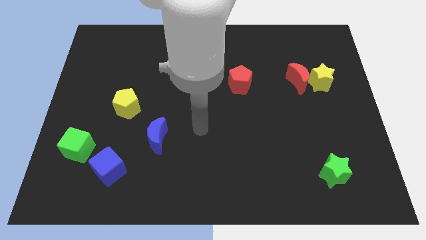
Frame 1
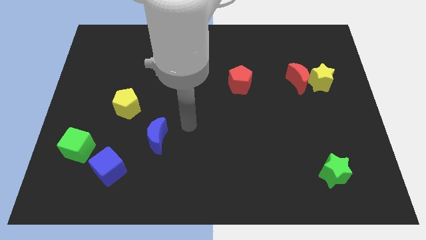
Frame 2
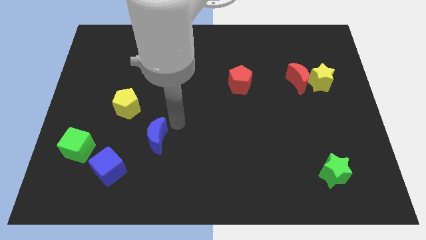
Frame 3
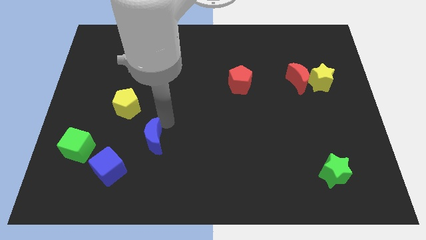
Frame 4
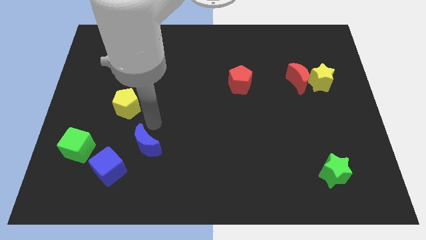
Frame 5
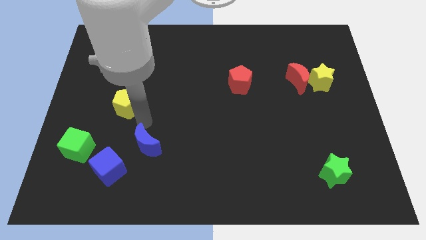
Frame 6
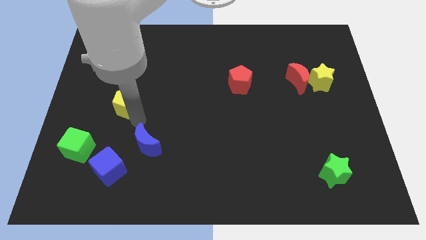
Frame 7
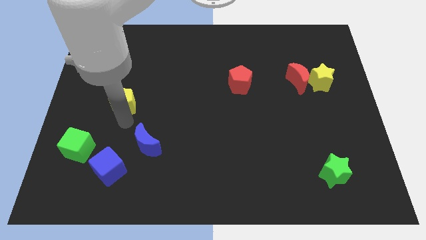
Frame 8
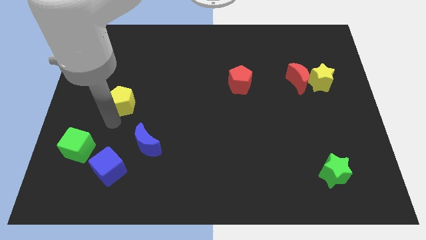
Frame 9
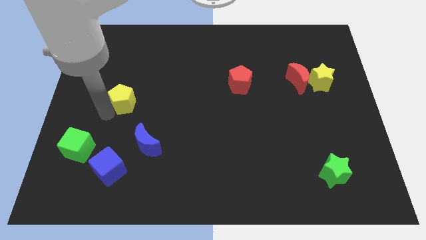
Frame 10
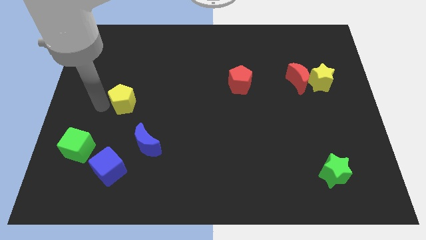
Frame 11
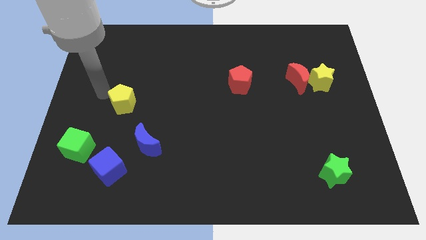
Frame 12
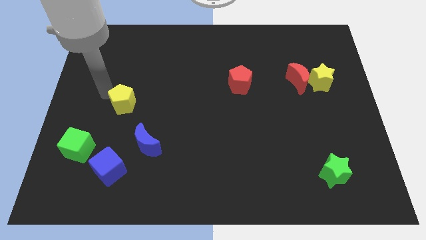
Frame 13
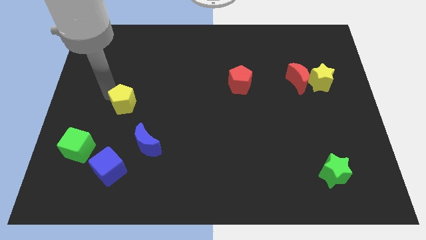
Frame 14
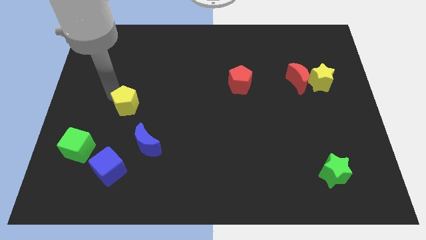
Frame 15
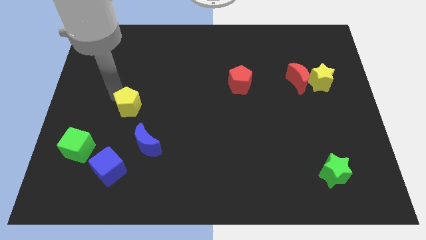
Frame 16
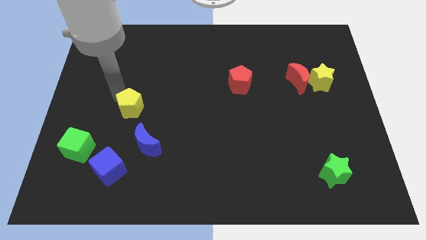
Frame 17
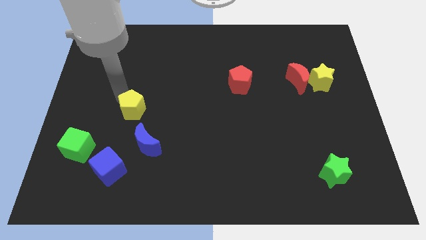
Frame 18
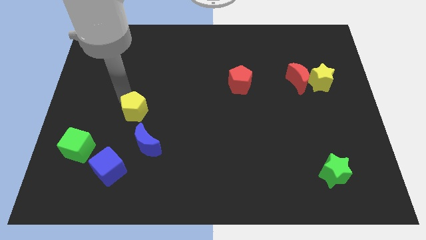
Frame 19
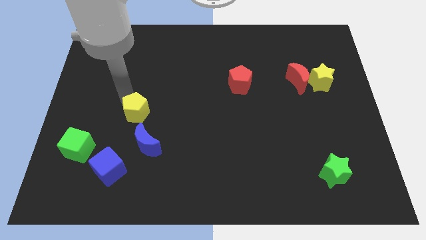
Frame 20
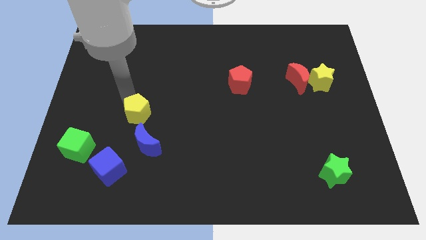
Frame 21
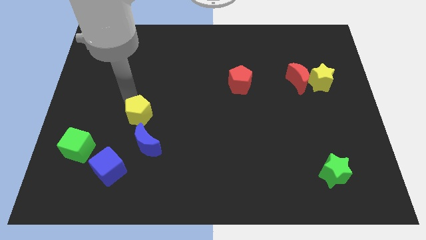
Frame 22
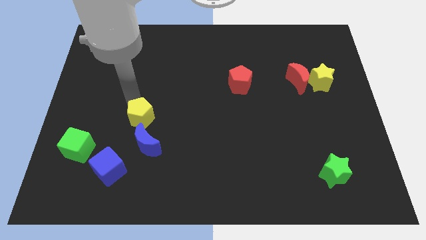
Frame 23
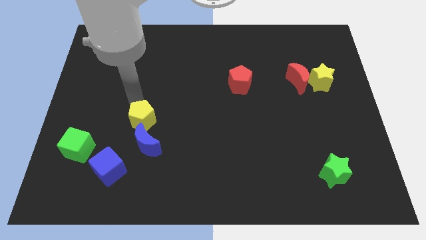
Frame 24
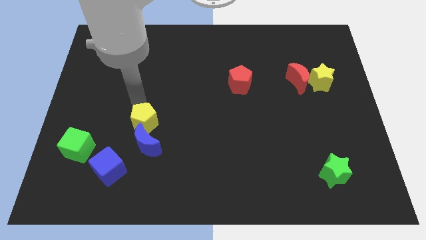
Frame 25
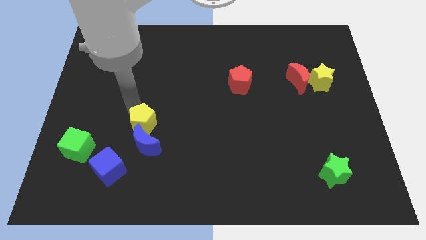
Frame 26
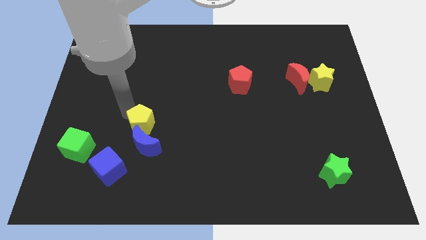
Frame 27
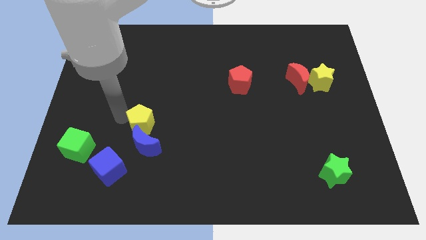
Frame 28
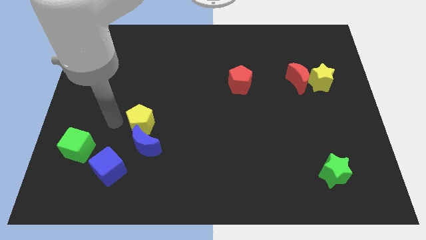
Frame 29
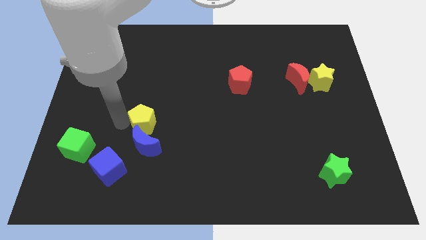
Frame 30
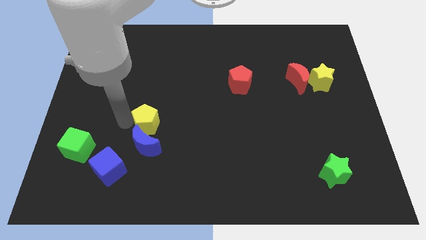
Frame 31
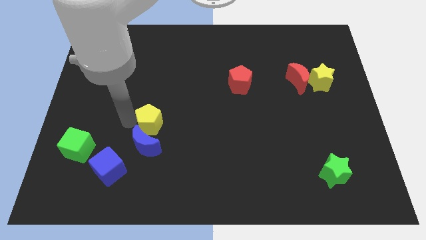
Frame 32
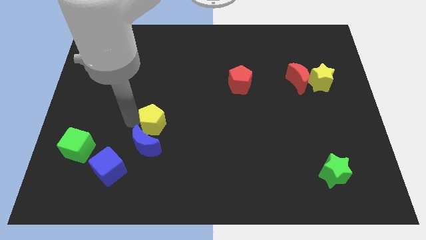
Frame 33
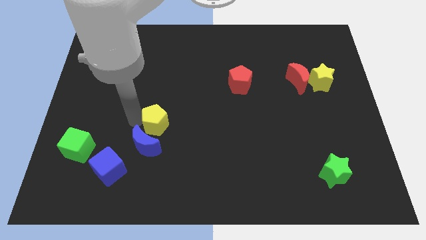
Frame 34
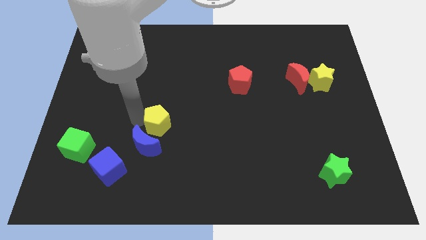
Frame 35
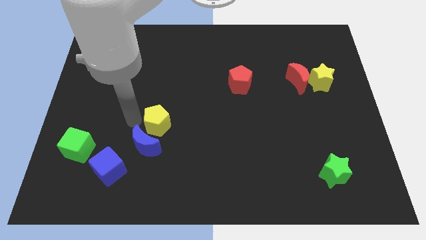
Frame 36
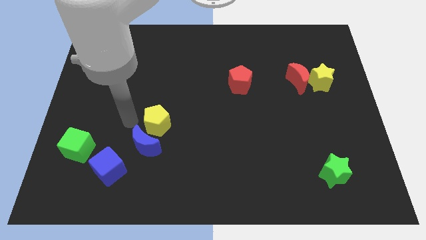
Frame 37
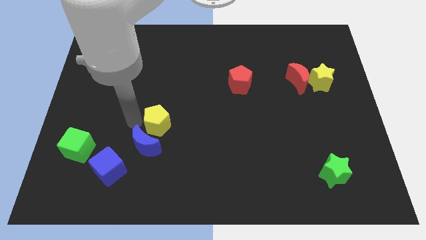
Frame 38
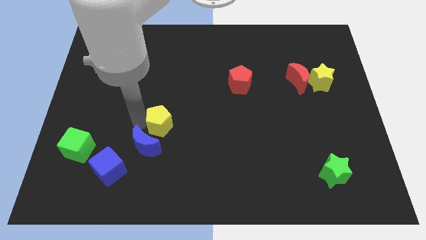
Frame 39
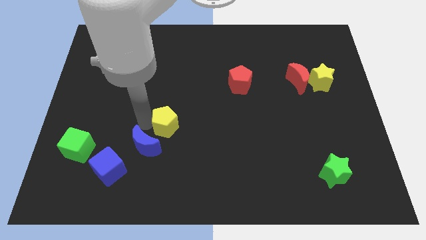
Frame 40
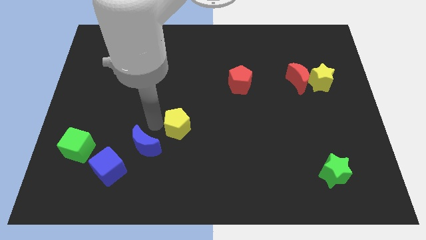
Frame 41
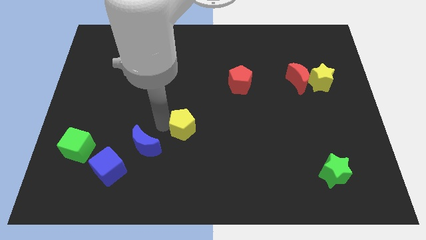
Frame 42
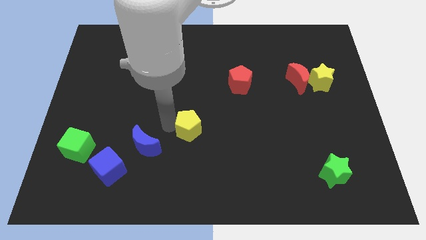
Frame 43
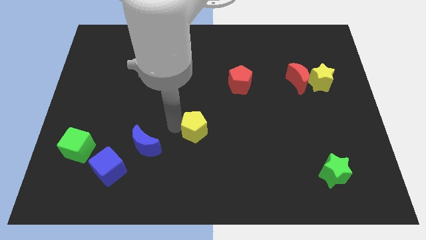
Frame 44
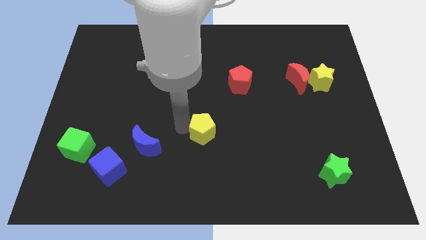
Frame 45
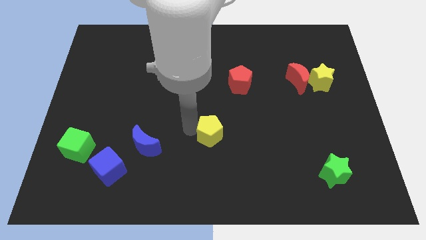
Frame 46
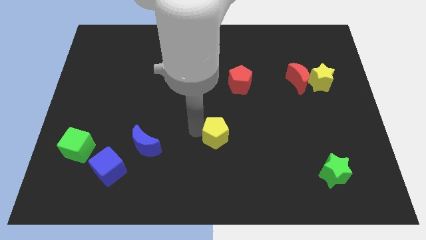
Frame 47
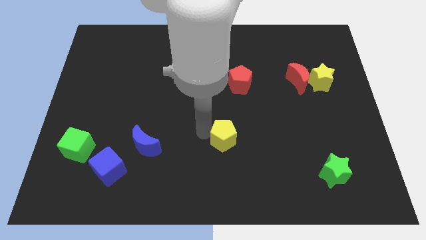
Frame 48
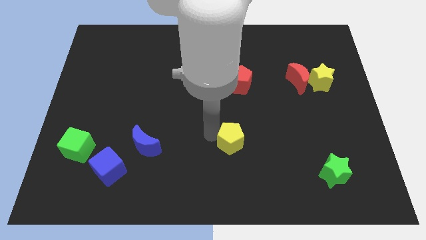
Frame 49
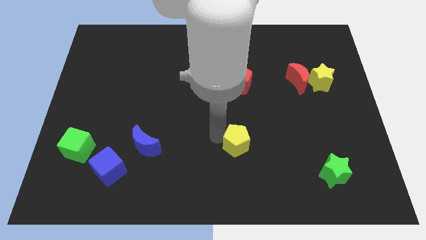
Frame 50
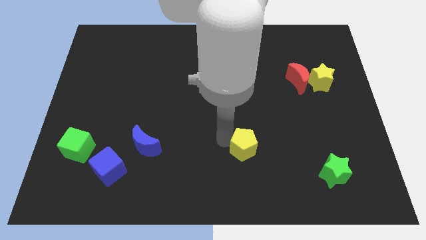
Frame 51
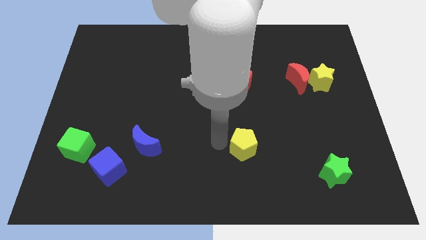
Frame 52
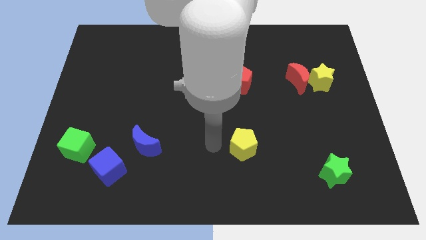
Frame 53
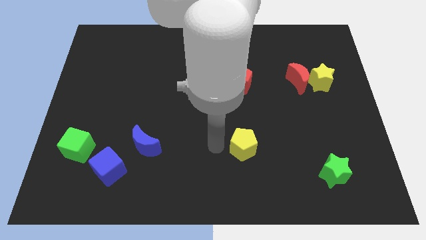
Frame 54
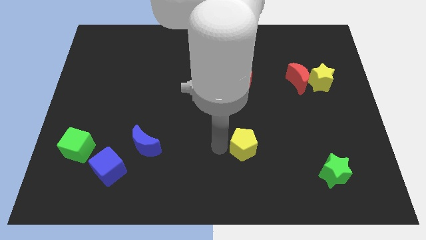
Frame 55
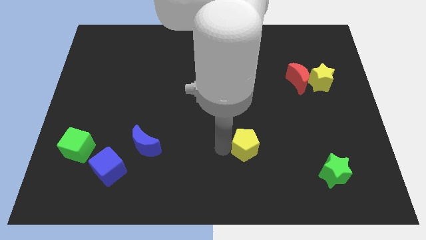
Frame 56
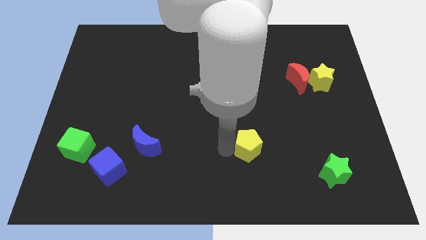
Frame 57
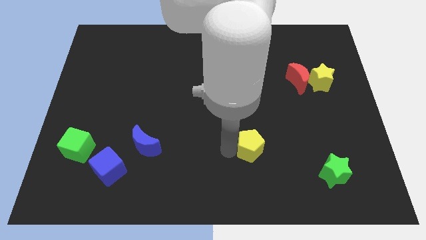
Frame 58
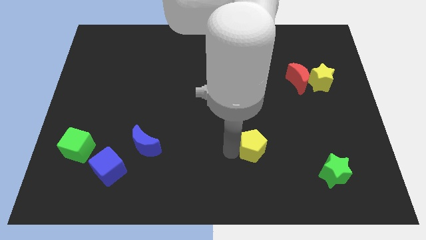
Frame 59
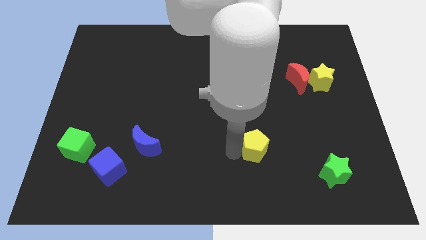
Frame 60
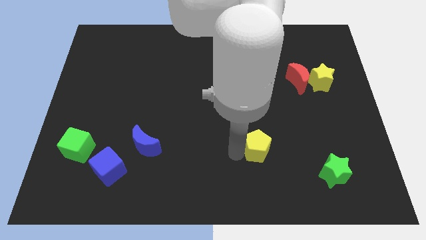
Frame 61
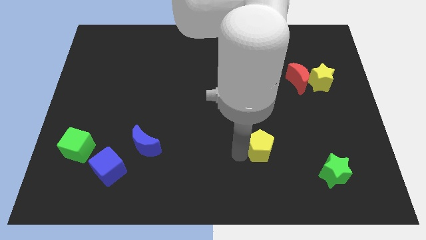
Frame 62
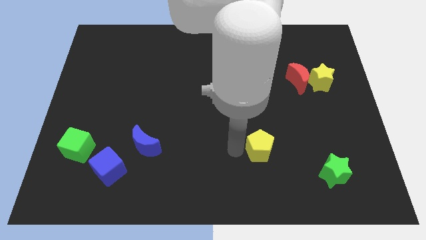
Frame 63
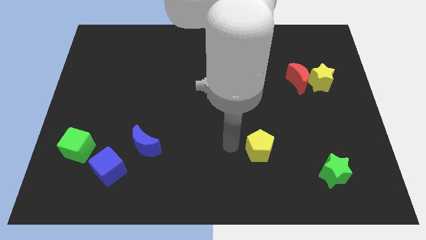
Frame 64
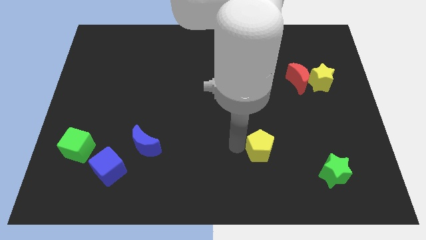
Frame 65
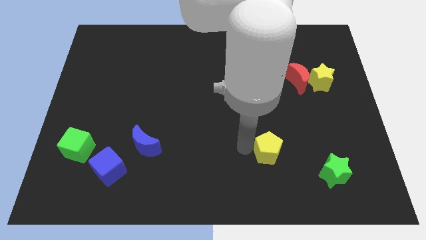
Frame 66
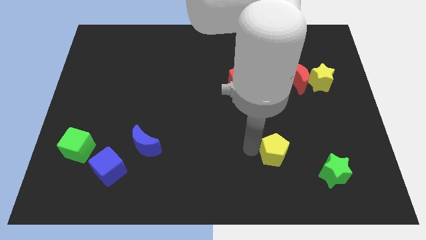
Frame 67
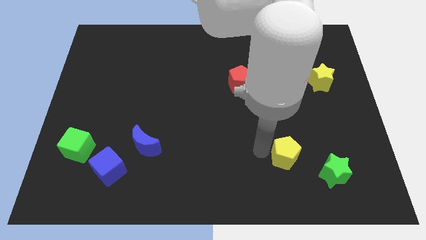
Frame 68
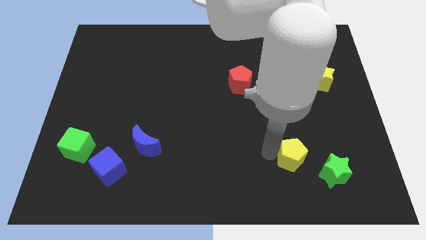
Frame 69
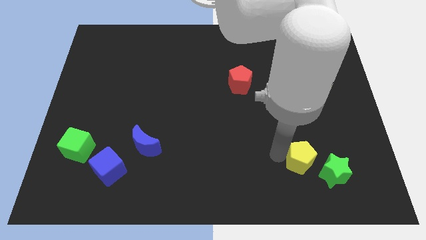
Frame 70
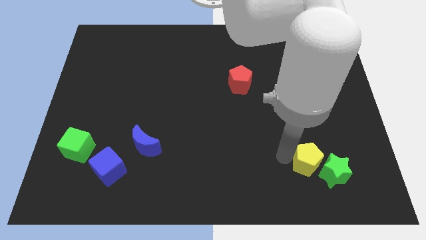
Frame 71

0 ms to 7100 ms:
put the yellow pentagon to the green star

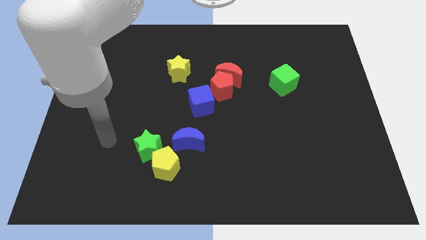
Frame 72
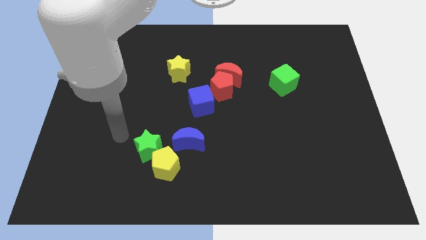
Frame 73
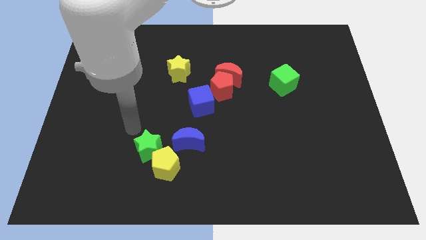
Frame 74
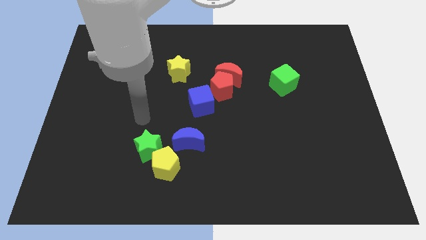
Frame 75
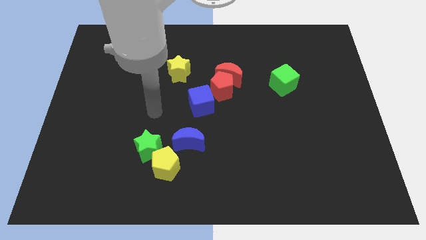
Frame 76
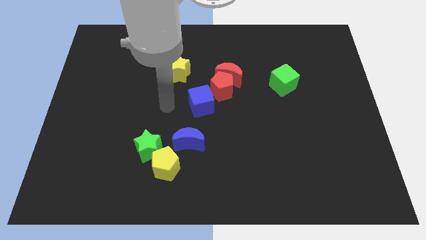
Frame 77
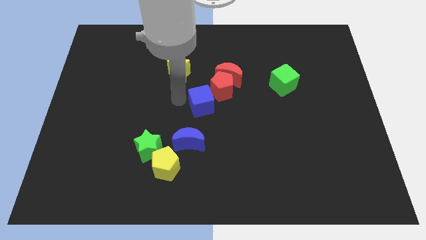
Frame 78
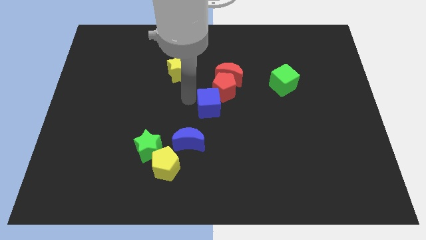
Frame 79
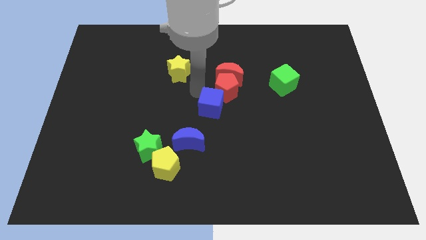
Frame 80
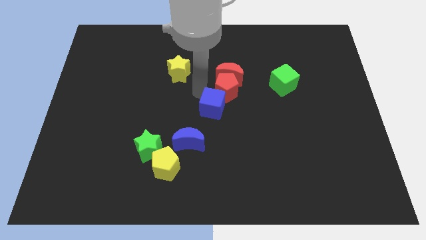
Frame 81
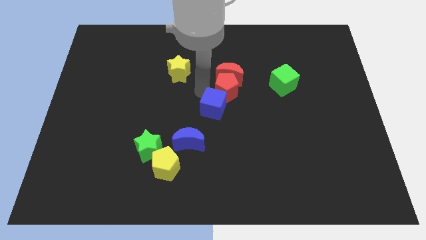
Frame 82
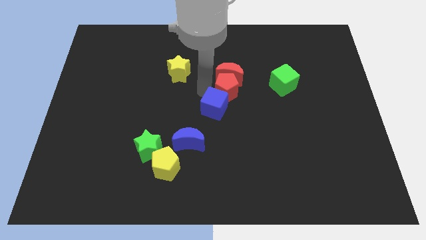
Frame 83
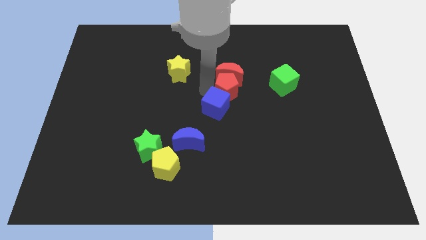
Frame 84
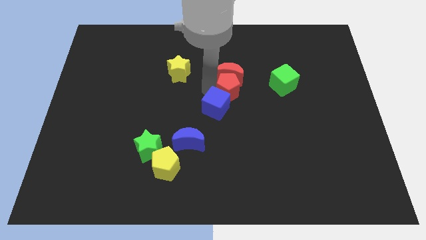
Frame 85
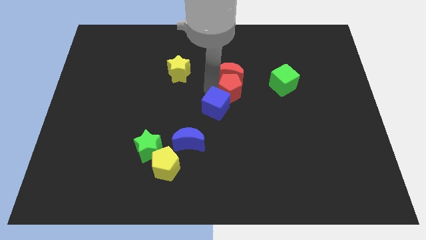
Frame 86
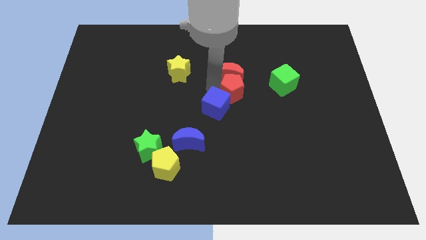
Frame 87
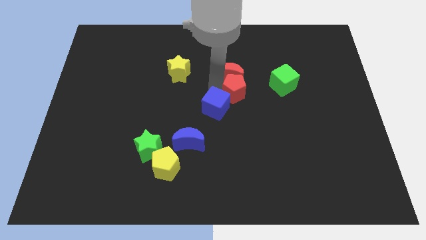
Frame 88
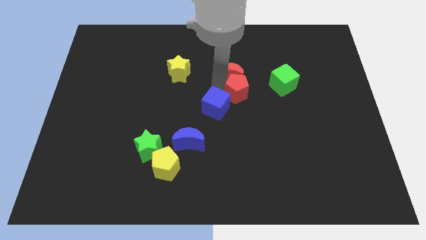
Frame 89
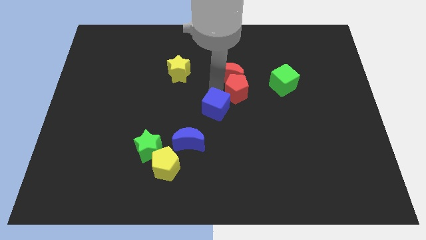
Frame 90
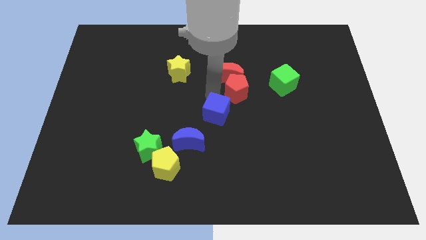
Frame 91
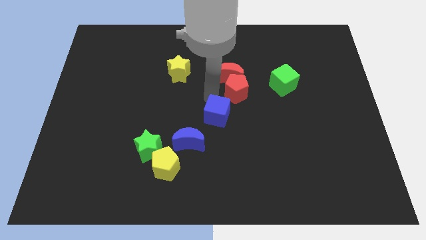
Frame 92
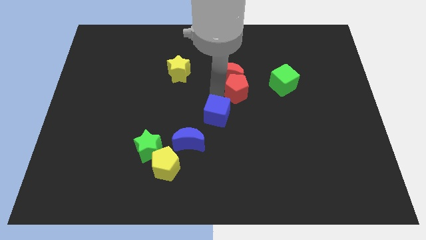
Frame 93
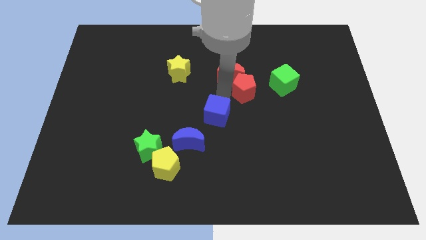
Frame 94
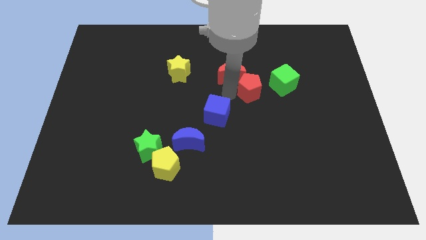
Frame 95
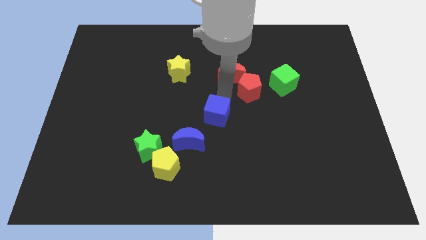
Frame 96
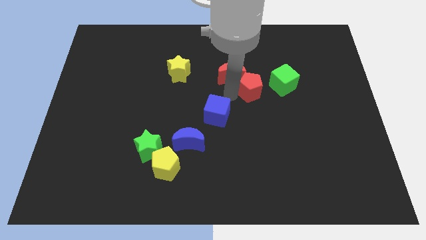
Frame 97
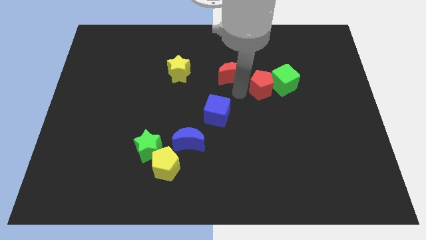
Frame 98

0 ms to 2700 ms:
put the red pentagon to the green cube
